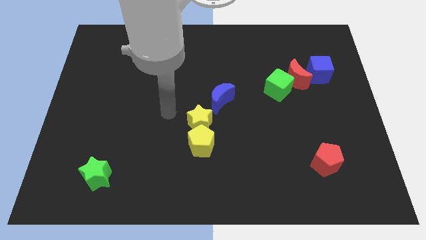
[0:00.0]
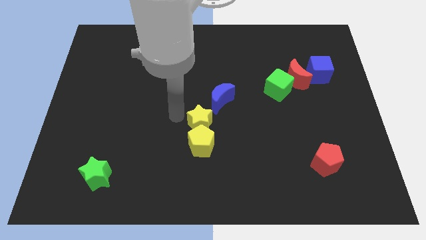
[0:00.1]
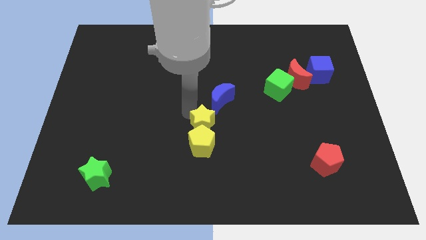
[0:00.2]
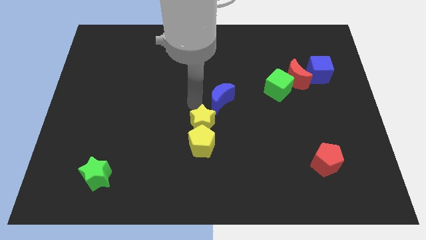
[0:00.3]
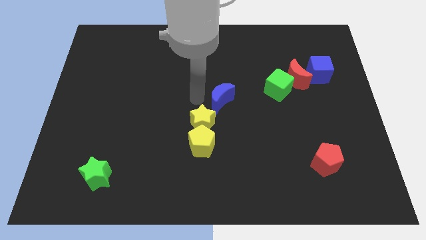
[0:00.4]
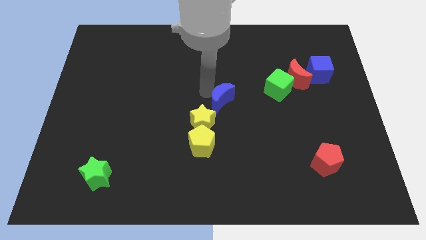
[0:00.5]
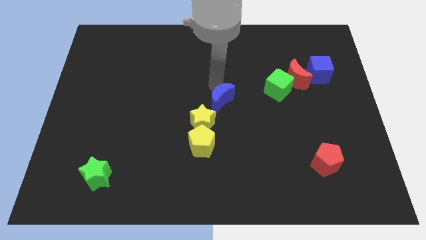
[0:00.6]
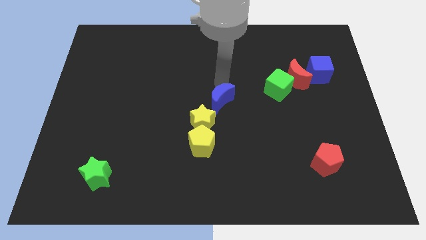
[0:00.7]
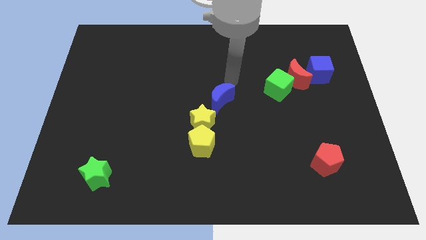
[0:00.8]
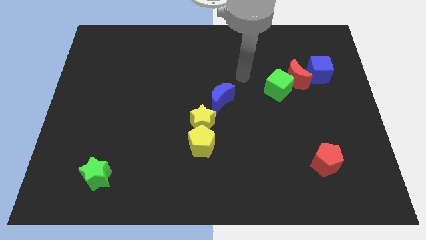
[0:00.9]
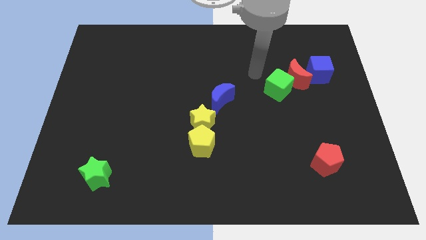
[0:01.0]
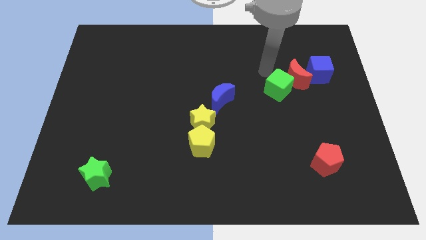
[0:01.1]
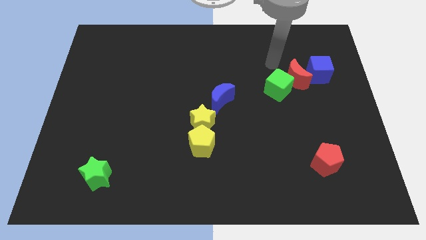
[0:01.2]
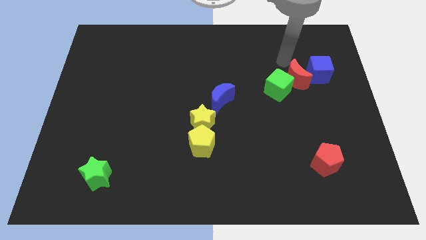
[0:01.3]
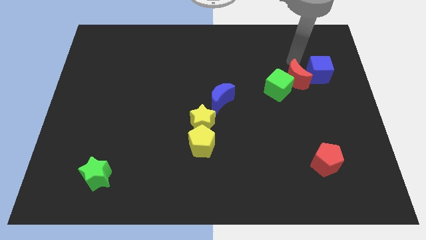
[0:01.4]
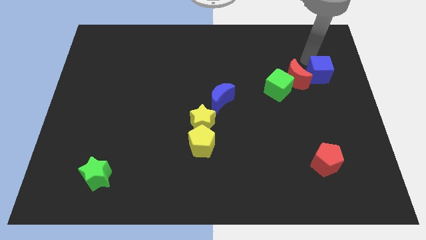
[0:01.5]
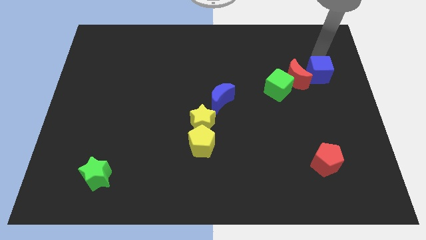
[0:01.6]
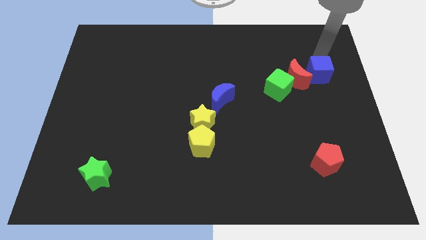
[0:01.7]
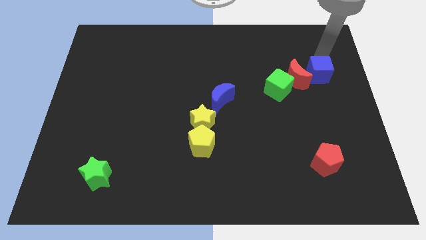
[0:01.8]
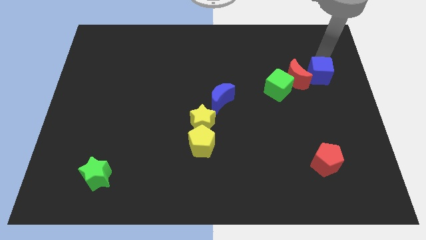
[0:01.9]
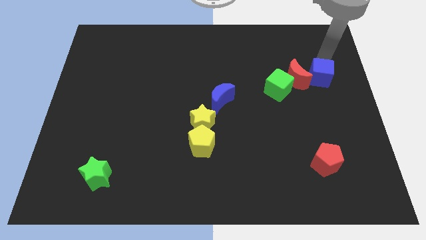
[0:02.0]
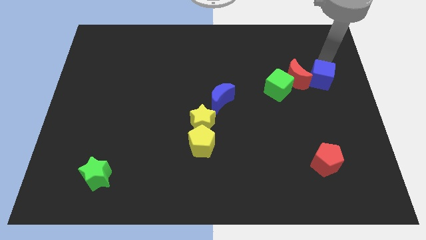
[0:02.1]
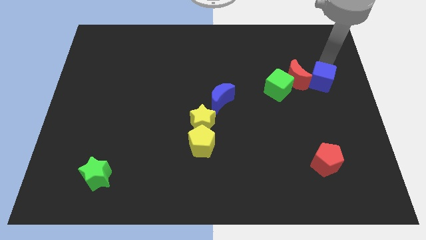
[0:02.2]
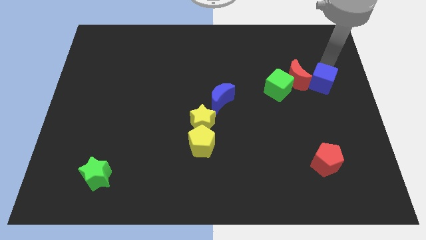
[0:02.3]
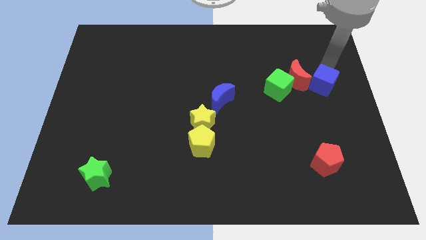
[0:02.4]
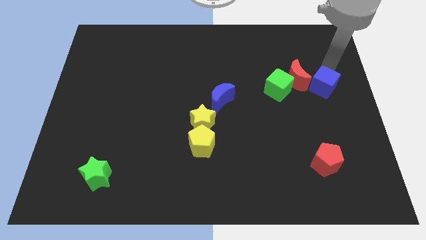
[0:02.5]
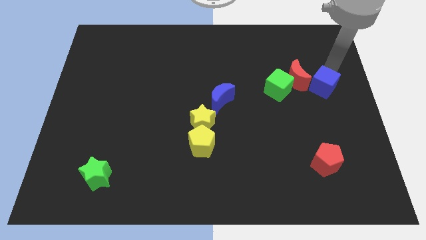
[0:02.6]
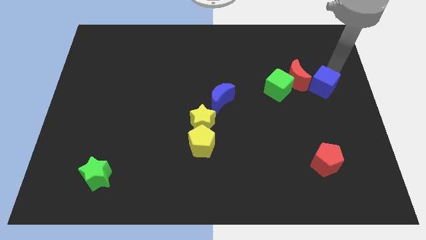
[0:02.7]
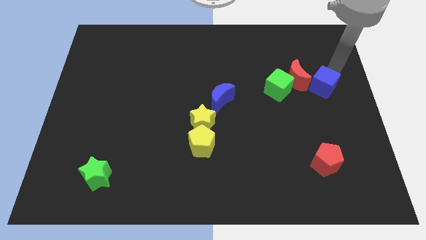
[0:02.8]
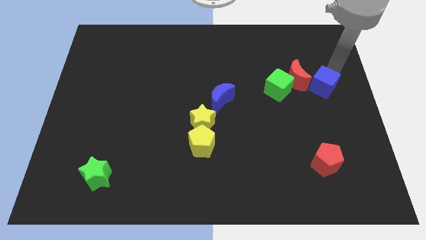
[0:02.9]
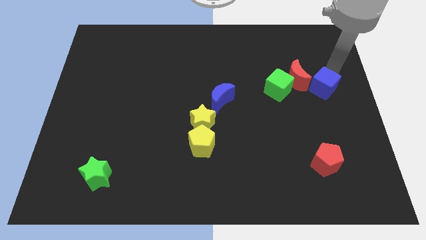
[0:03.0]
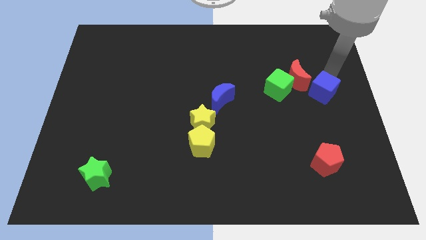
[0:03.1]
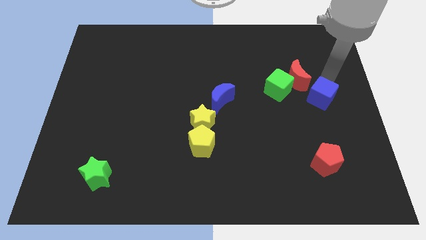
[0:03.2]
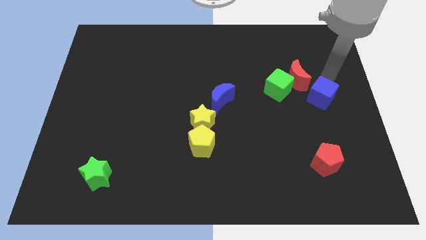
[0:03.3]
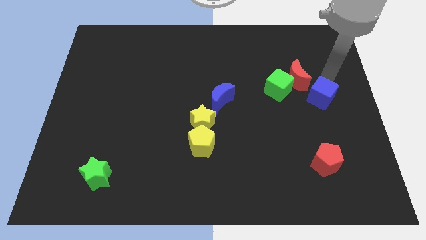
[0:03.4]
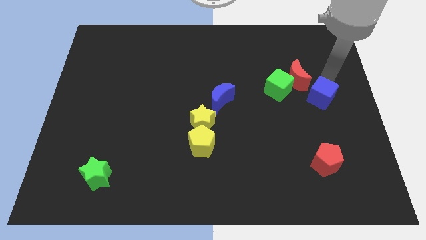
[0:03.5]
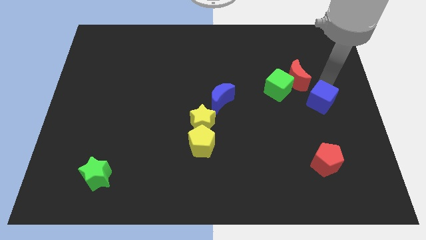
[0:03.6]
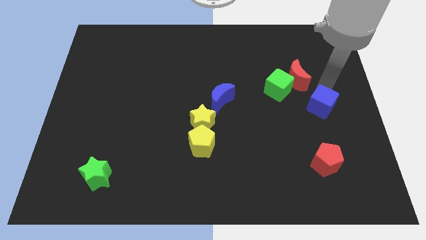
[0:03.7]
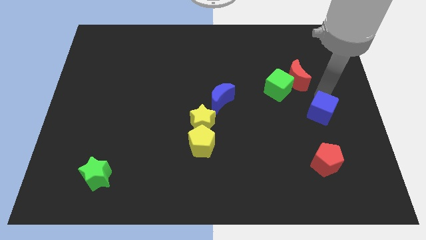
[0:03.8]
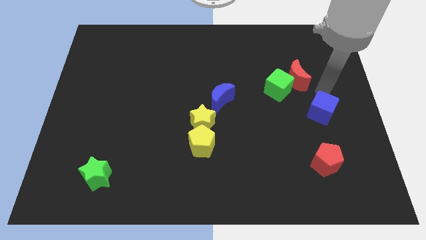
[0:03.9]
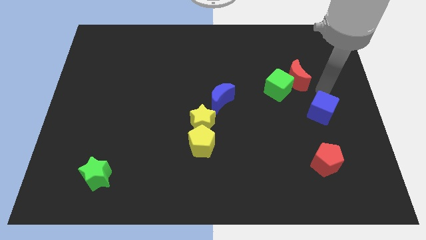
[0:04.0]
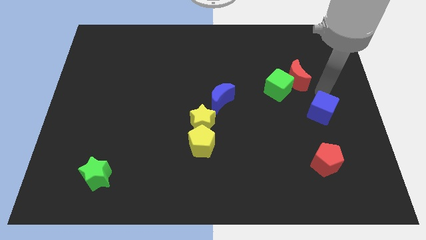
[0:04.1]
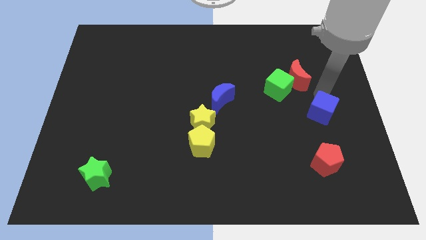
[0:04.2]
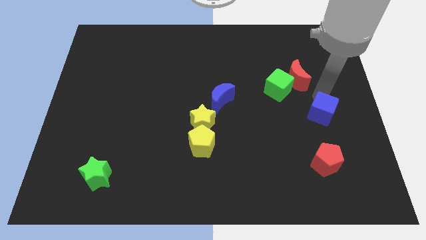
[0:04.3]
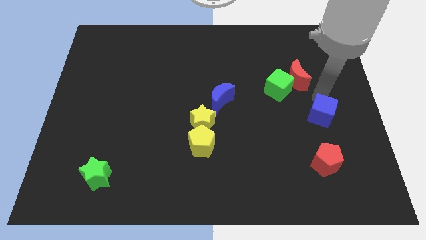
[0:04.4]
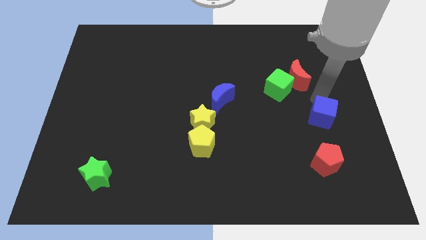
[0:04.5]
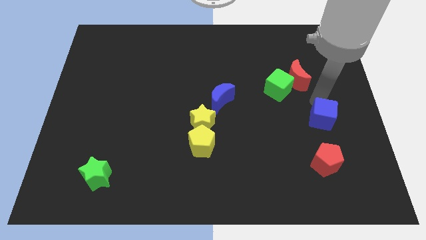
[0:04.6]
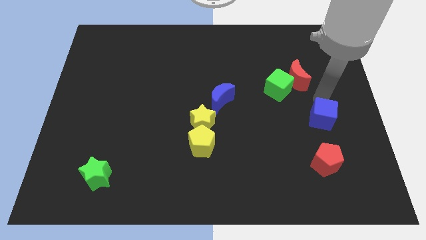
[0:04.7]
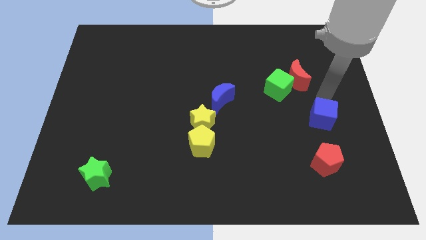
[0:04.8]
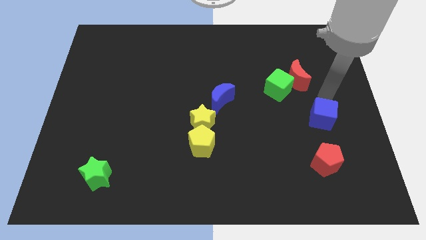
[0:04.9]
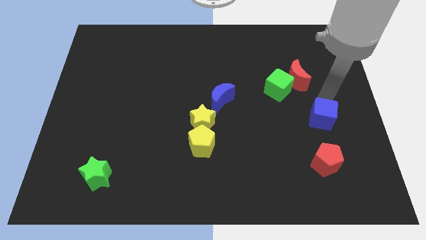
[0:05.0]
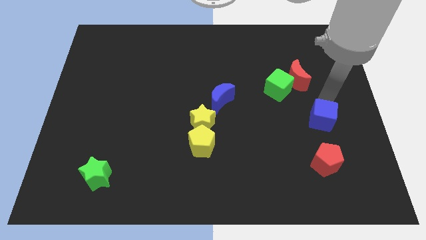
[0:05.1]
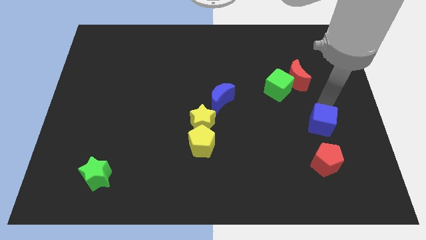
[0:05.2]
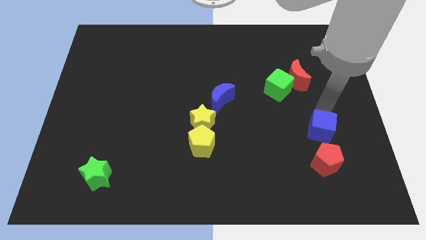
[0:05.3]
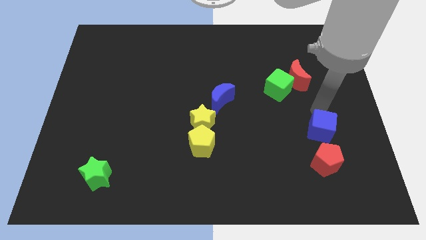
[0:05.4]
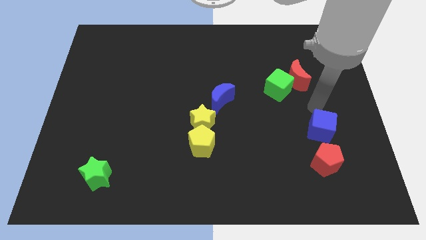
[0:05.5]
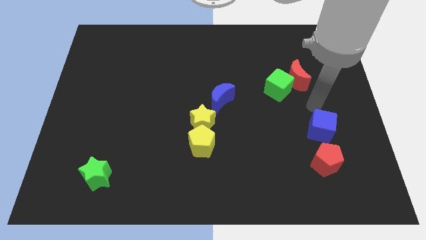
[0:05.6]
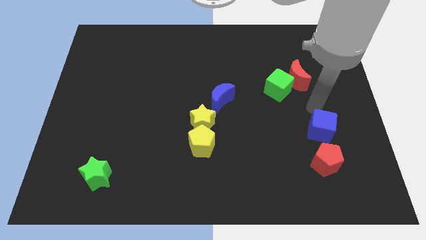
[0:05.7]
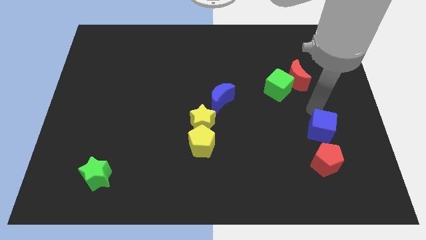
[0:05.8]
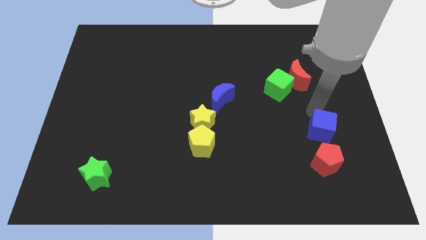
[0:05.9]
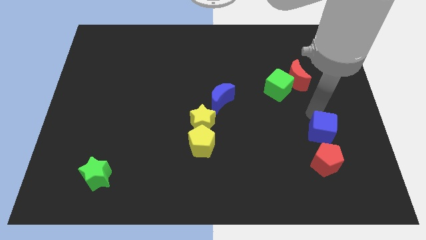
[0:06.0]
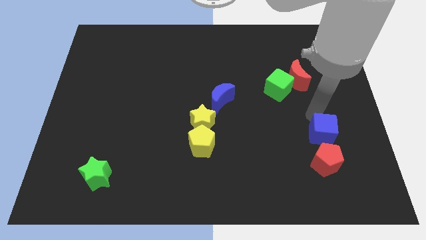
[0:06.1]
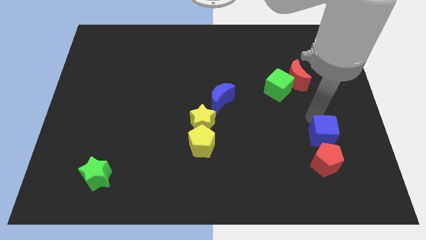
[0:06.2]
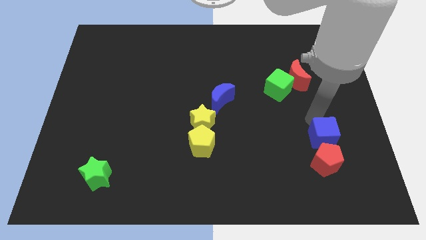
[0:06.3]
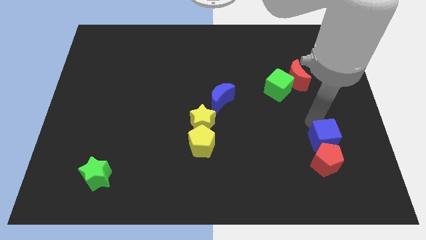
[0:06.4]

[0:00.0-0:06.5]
slide the blue cube to the red pentagon

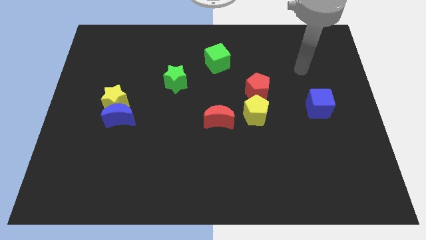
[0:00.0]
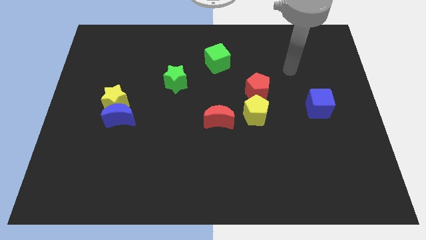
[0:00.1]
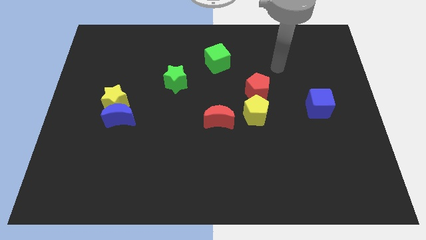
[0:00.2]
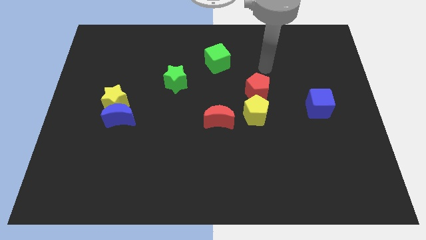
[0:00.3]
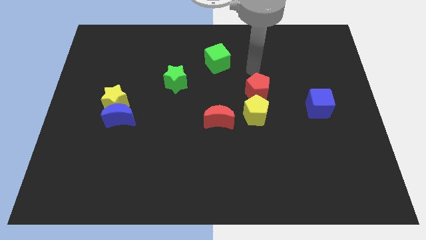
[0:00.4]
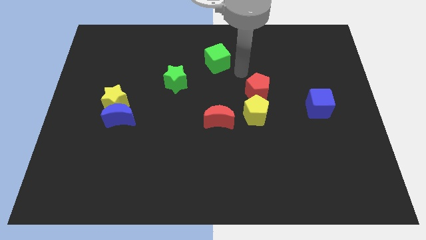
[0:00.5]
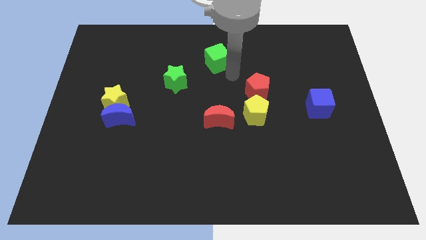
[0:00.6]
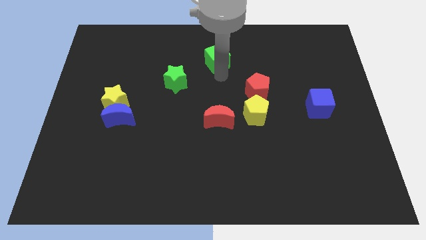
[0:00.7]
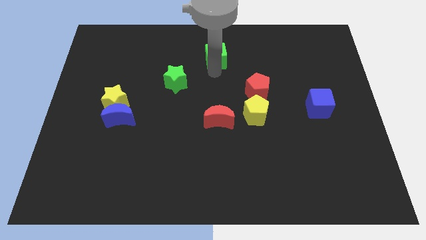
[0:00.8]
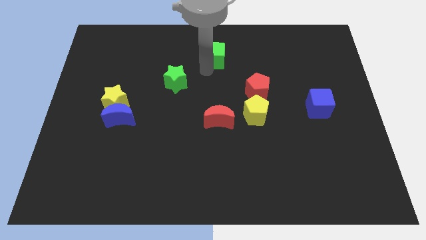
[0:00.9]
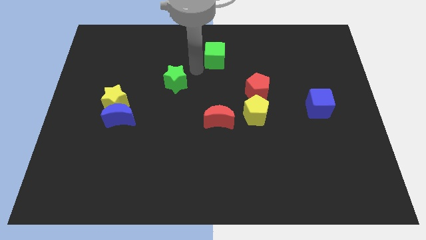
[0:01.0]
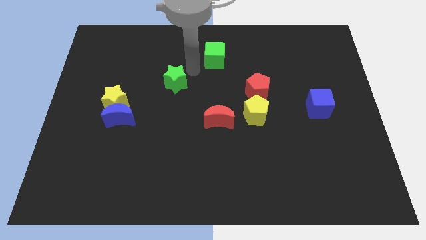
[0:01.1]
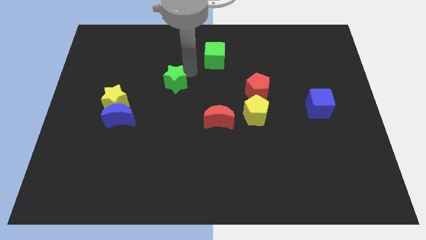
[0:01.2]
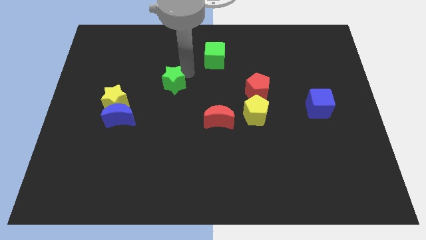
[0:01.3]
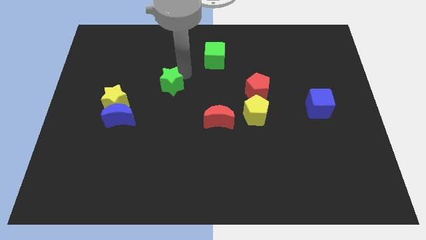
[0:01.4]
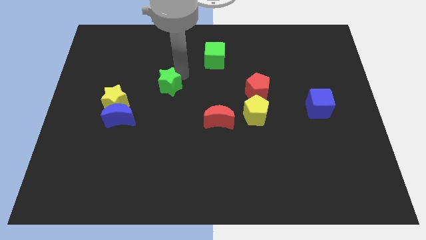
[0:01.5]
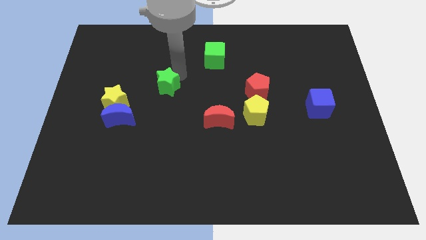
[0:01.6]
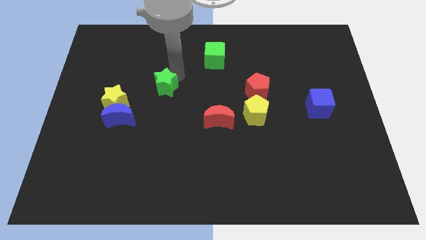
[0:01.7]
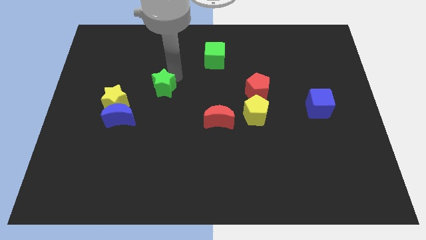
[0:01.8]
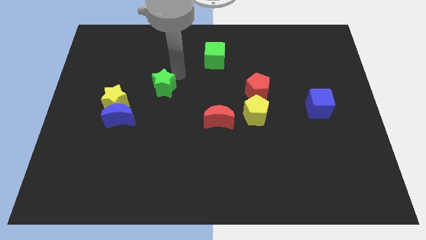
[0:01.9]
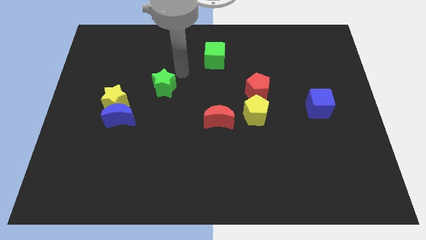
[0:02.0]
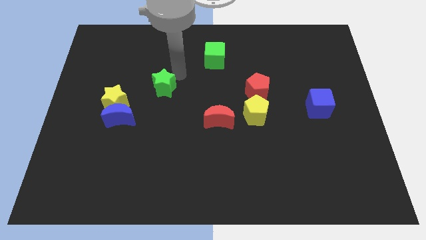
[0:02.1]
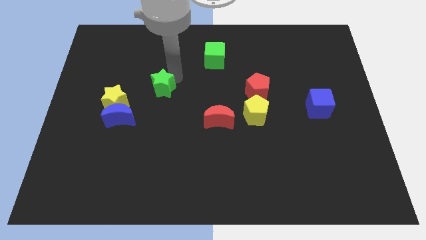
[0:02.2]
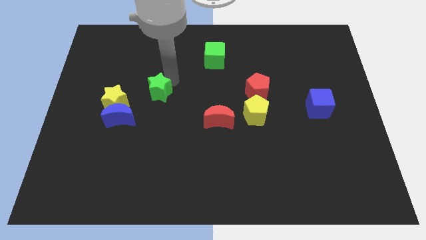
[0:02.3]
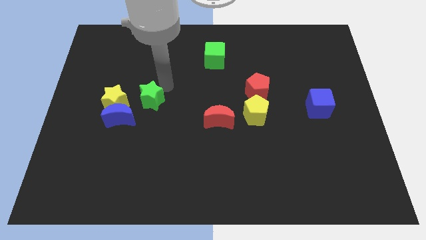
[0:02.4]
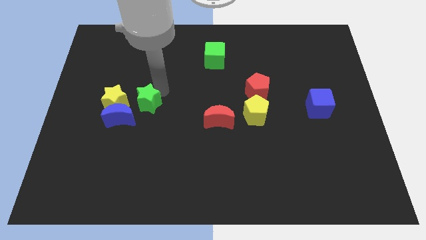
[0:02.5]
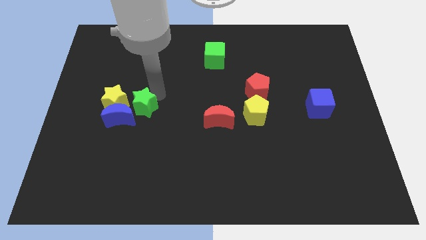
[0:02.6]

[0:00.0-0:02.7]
move the green star close to the blue moon
